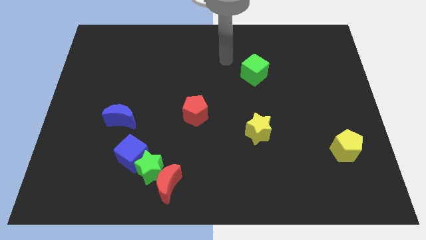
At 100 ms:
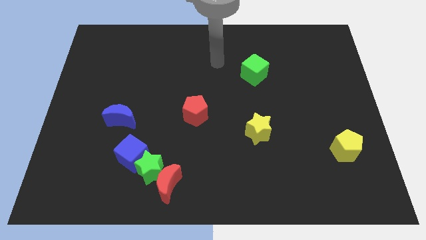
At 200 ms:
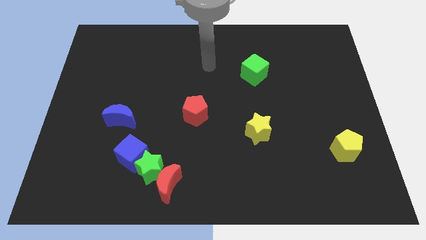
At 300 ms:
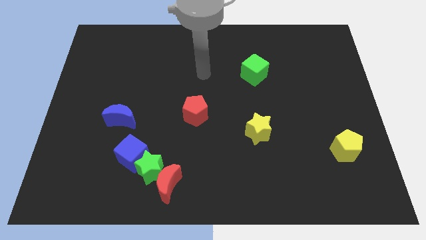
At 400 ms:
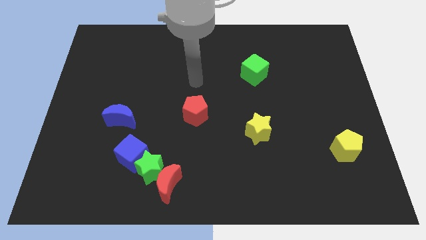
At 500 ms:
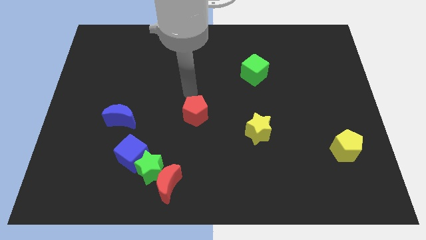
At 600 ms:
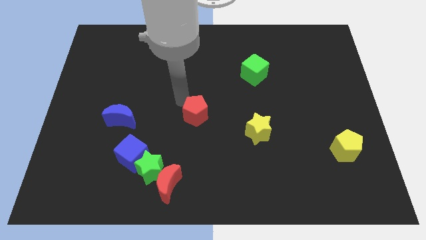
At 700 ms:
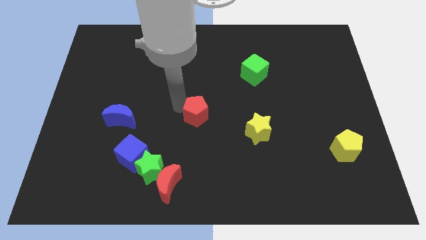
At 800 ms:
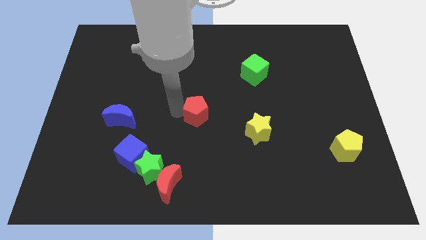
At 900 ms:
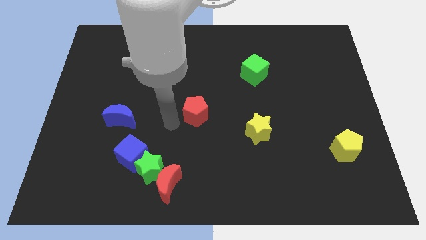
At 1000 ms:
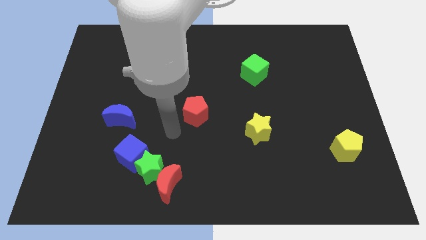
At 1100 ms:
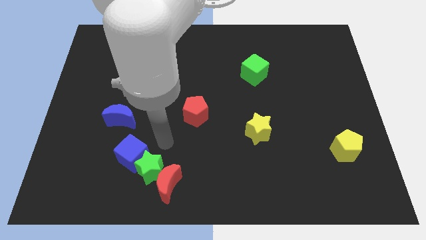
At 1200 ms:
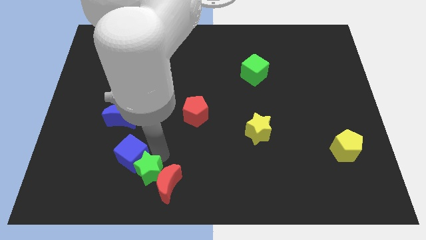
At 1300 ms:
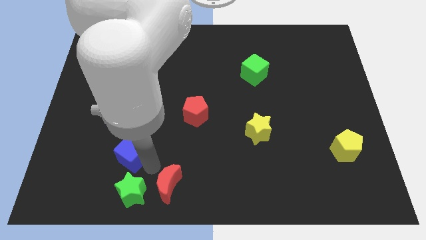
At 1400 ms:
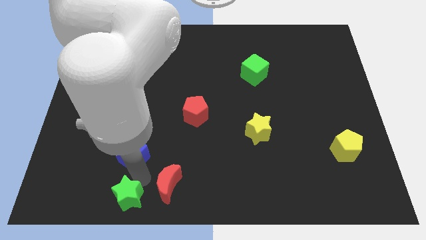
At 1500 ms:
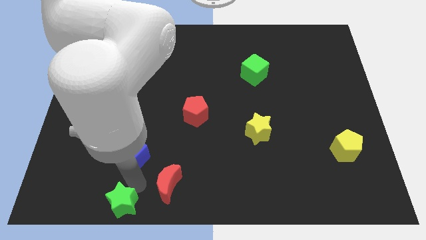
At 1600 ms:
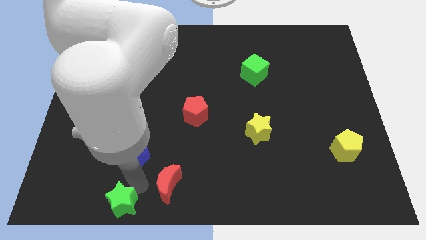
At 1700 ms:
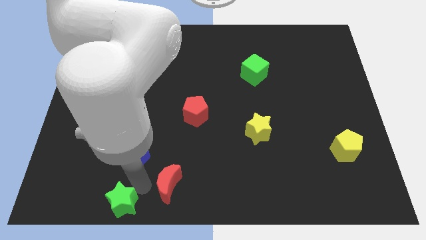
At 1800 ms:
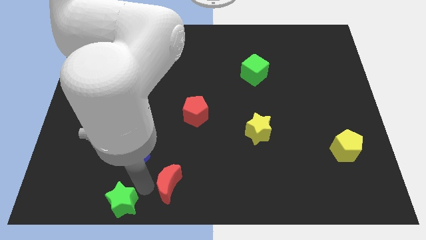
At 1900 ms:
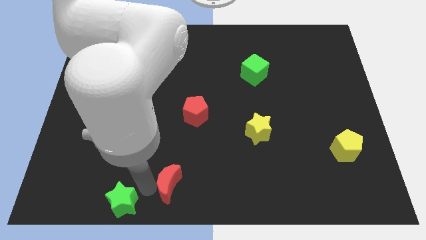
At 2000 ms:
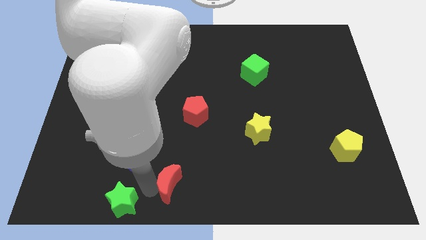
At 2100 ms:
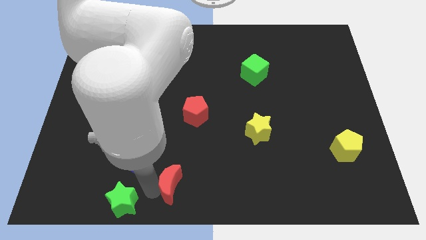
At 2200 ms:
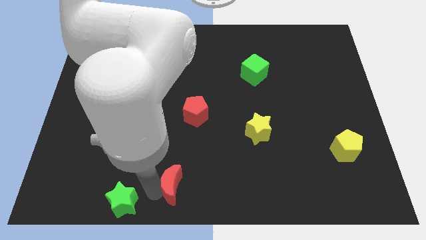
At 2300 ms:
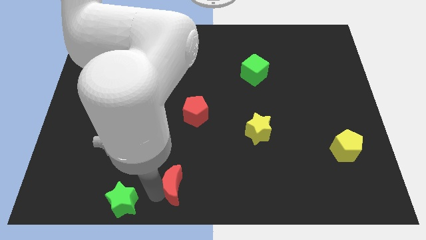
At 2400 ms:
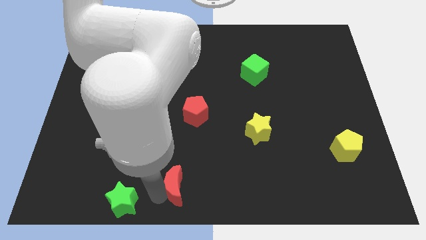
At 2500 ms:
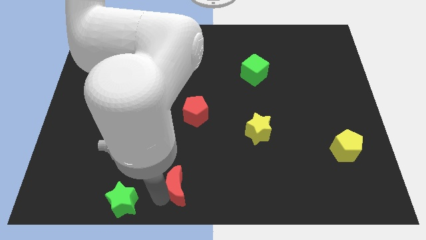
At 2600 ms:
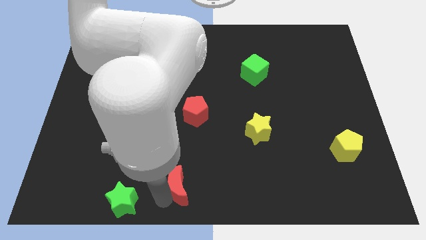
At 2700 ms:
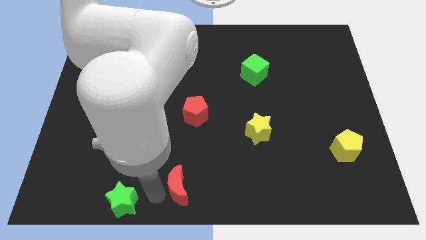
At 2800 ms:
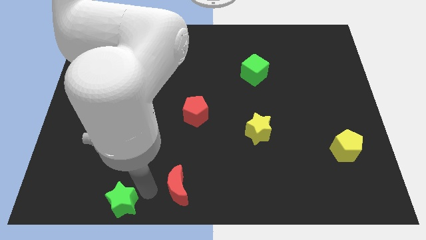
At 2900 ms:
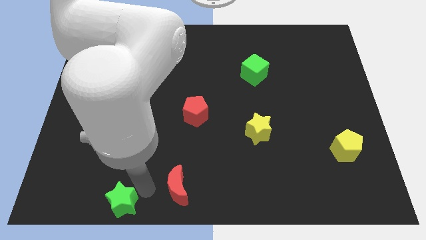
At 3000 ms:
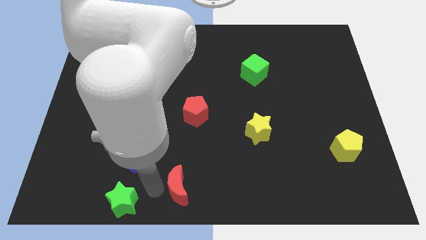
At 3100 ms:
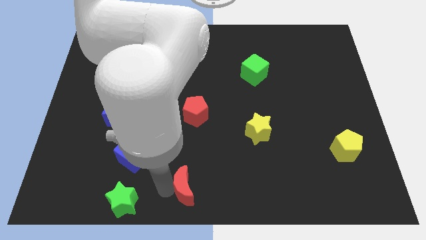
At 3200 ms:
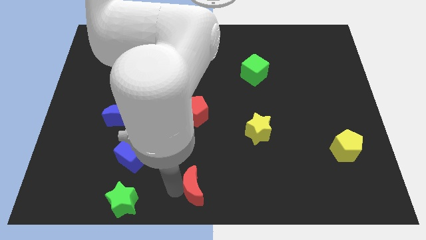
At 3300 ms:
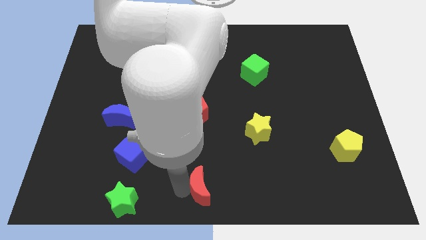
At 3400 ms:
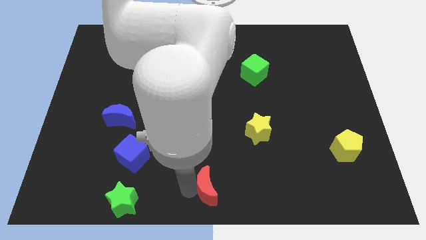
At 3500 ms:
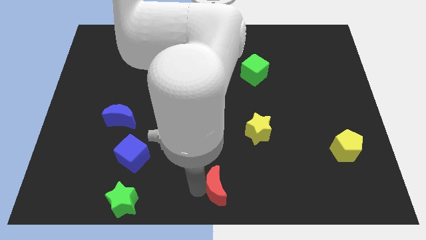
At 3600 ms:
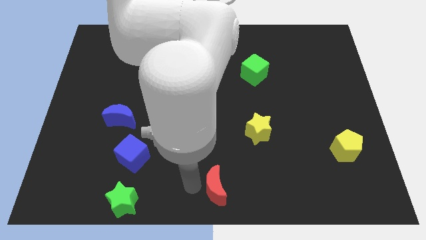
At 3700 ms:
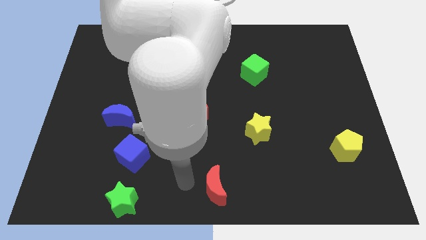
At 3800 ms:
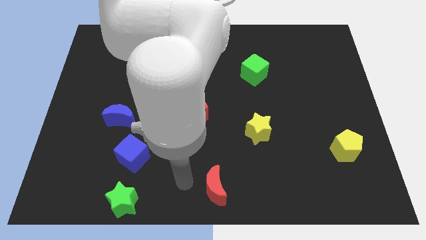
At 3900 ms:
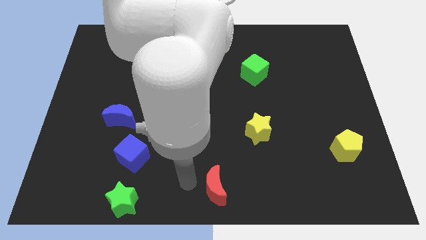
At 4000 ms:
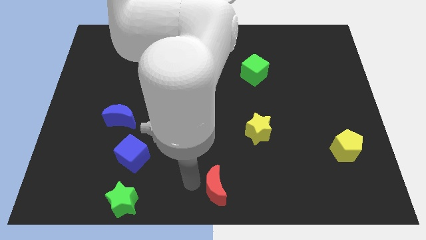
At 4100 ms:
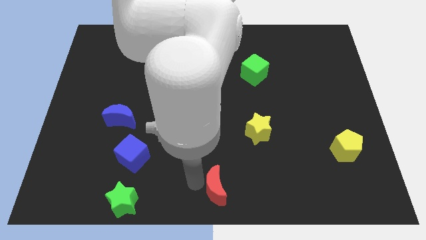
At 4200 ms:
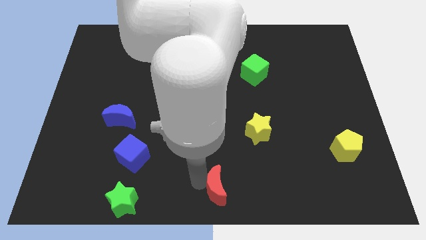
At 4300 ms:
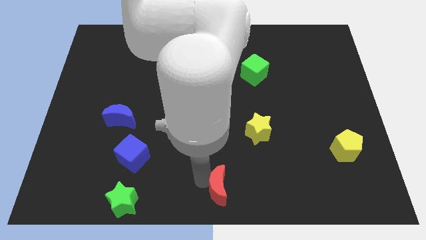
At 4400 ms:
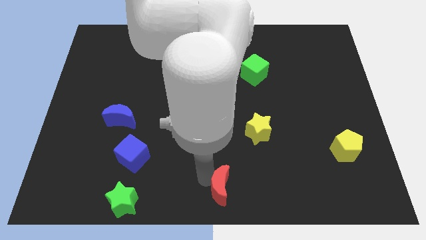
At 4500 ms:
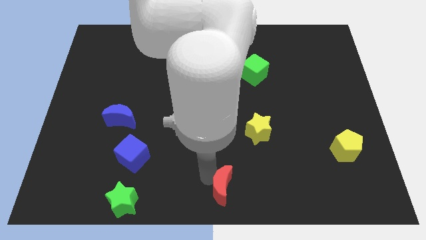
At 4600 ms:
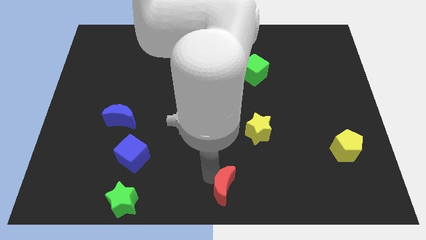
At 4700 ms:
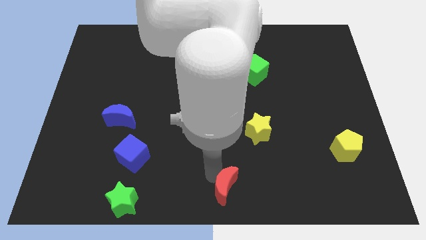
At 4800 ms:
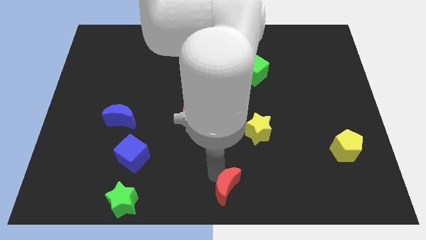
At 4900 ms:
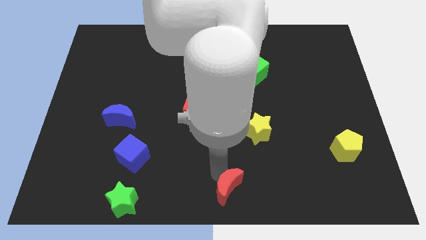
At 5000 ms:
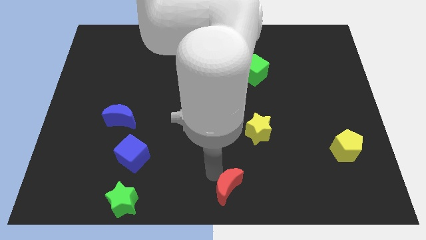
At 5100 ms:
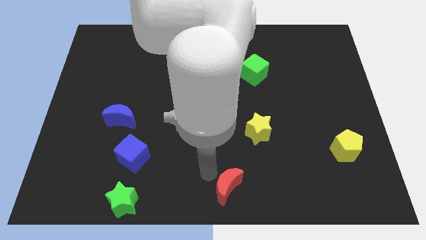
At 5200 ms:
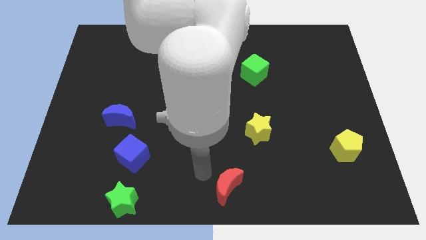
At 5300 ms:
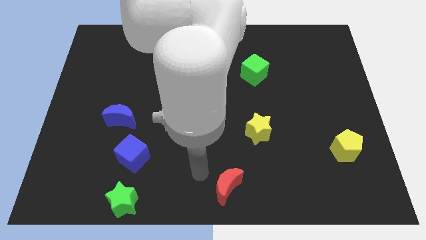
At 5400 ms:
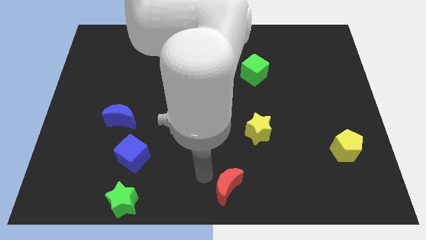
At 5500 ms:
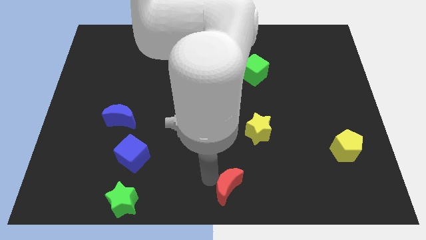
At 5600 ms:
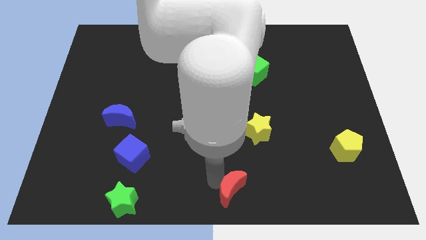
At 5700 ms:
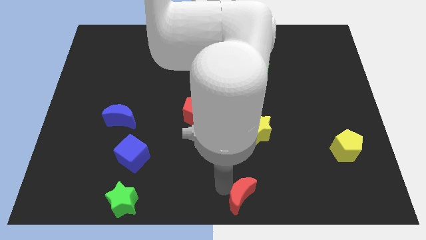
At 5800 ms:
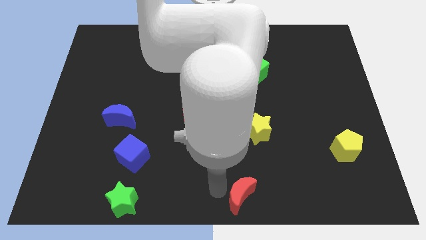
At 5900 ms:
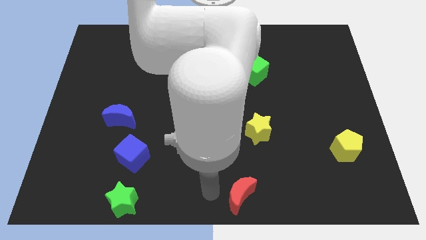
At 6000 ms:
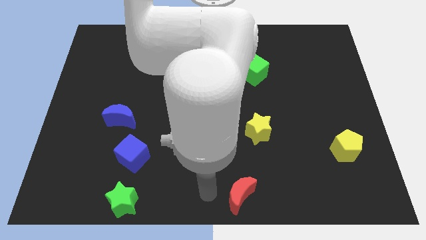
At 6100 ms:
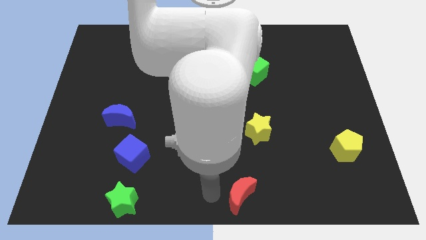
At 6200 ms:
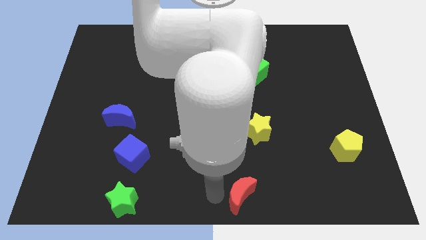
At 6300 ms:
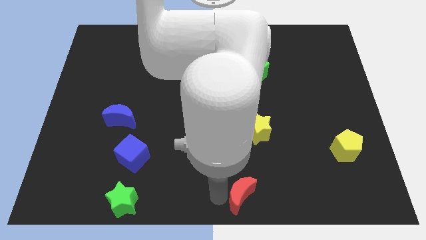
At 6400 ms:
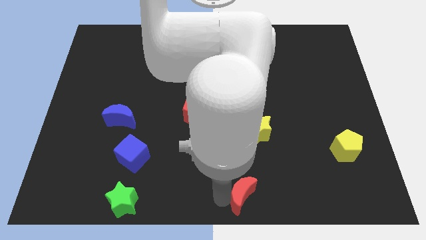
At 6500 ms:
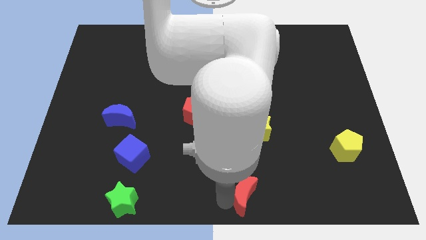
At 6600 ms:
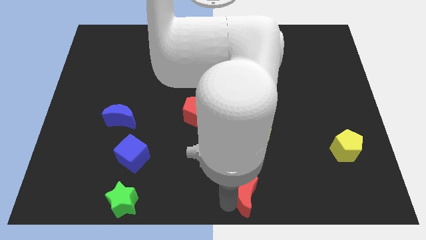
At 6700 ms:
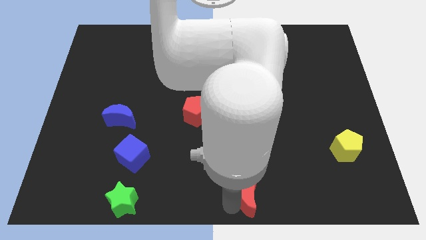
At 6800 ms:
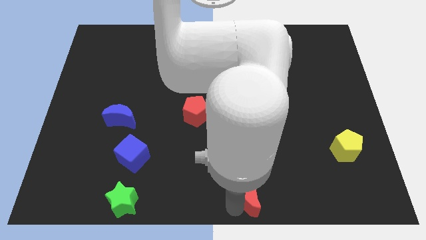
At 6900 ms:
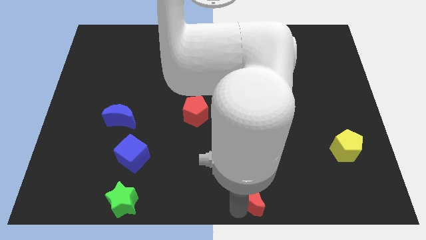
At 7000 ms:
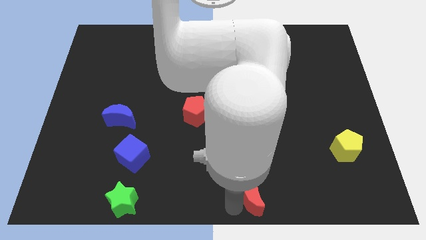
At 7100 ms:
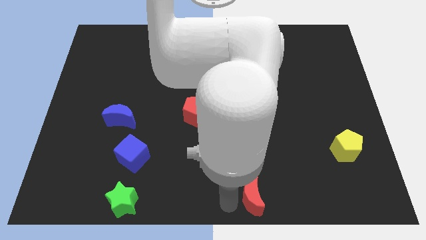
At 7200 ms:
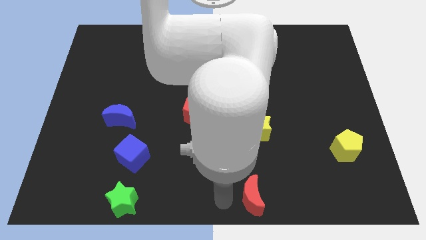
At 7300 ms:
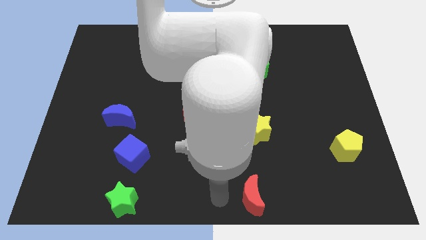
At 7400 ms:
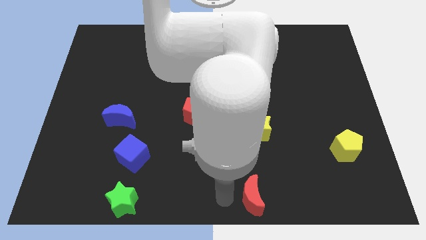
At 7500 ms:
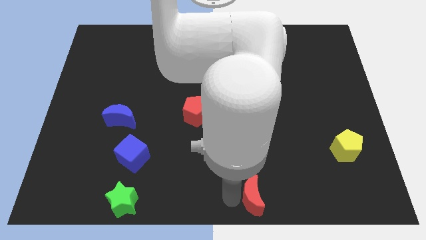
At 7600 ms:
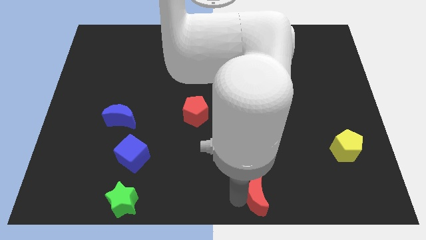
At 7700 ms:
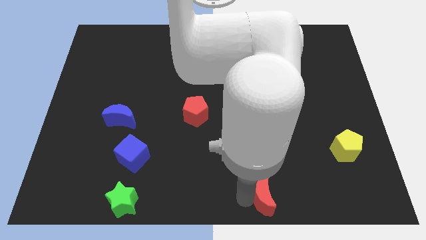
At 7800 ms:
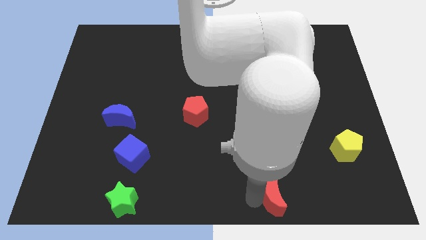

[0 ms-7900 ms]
move the red moon to the right

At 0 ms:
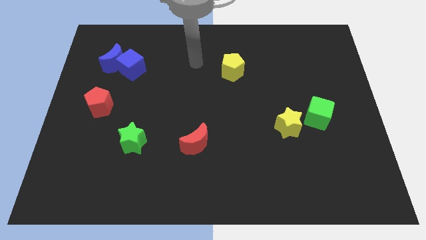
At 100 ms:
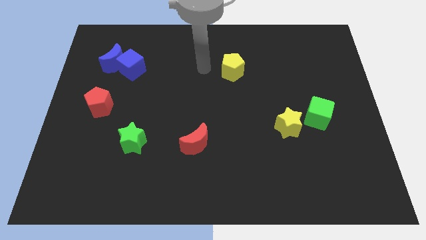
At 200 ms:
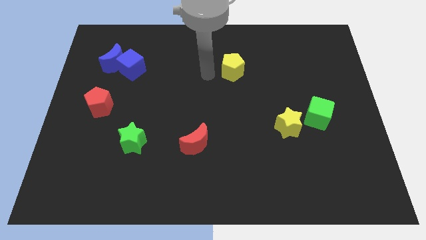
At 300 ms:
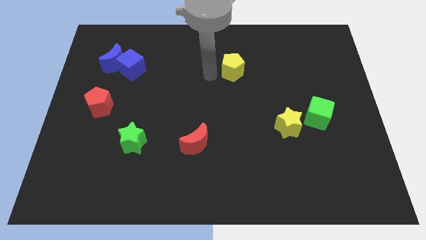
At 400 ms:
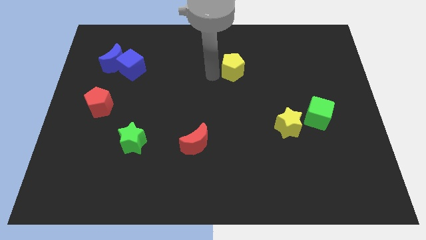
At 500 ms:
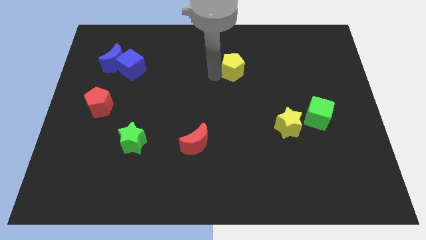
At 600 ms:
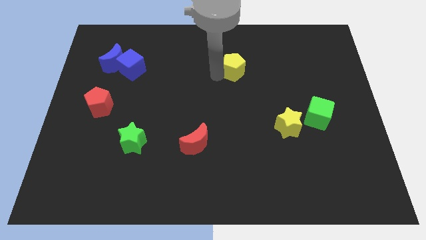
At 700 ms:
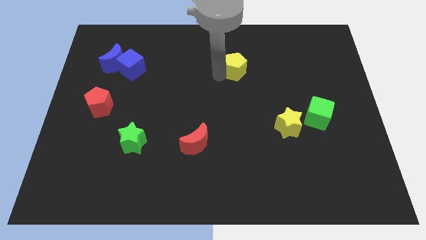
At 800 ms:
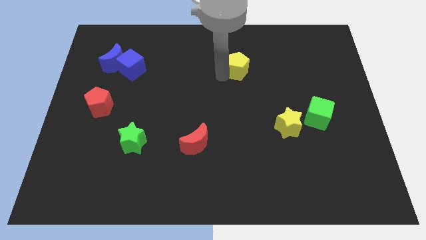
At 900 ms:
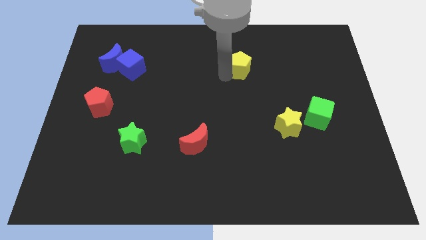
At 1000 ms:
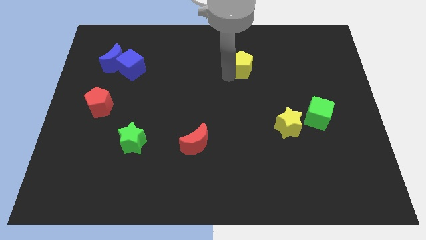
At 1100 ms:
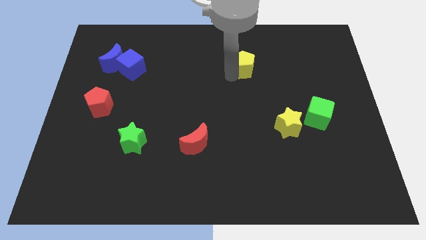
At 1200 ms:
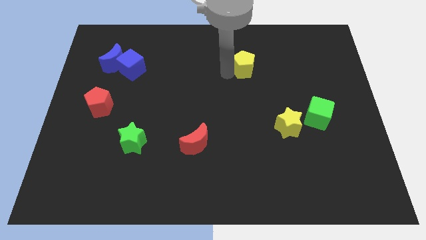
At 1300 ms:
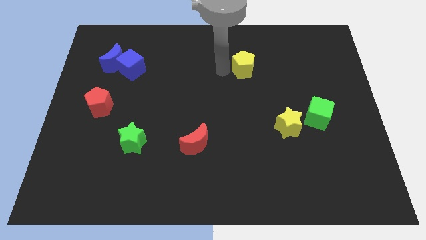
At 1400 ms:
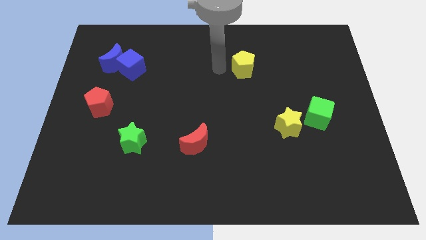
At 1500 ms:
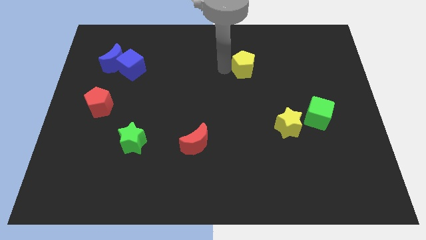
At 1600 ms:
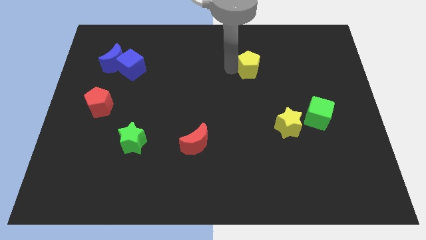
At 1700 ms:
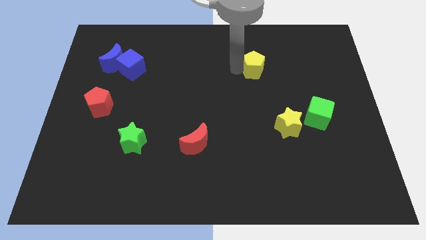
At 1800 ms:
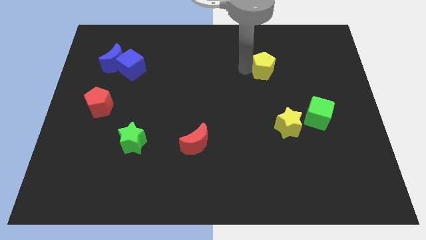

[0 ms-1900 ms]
slide the yellow pentagon a bit to the right
